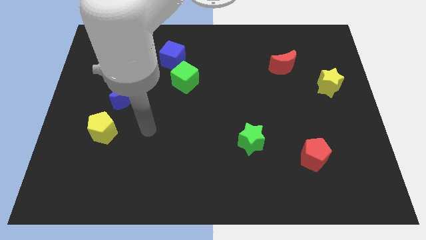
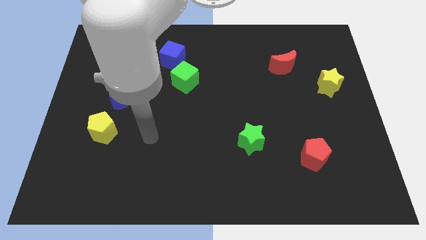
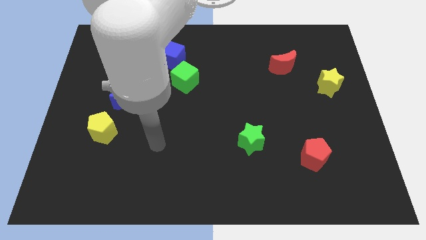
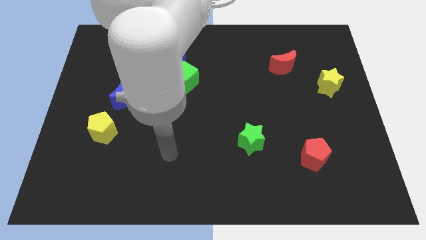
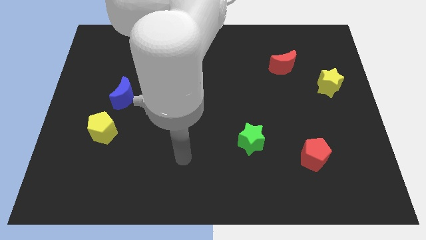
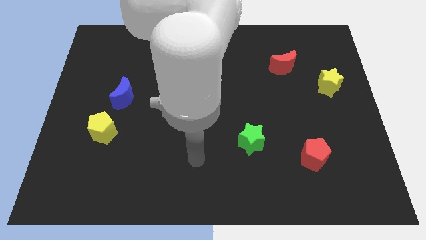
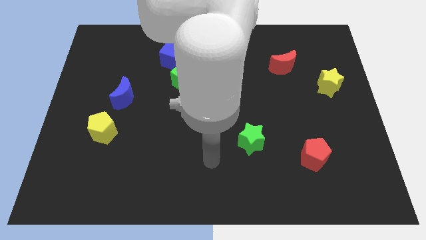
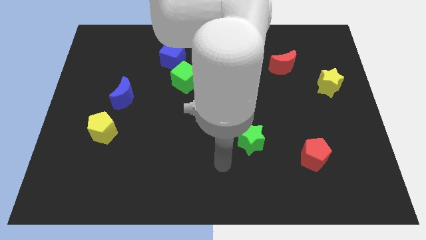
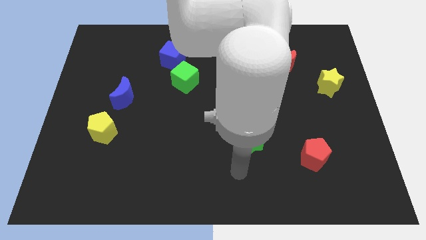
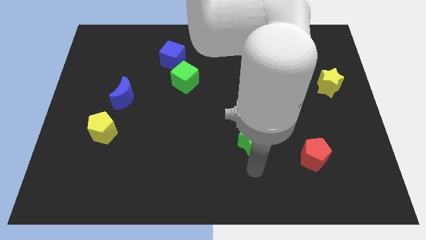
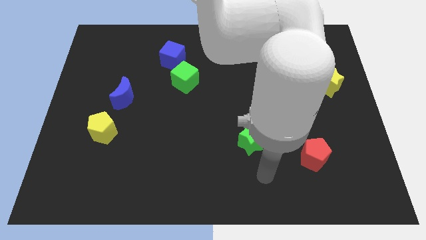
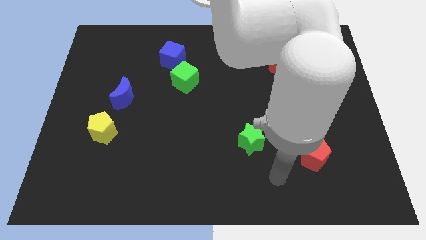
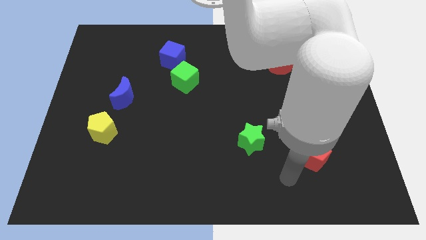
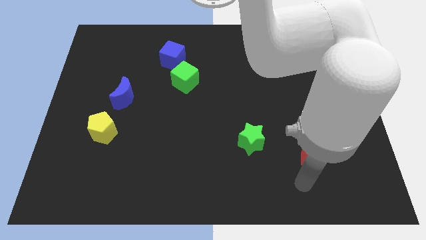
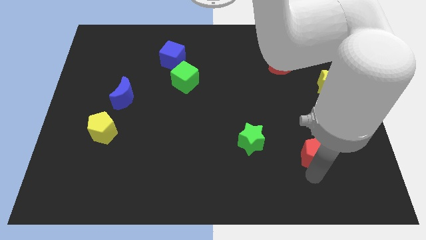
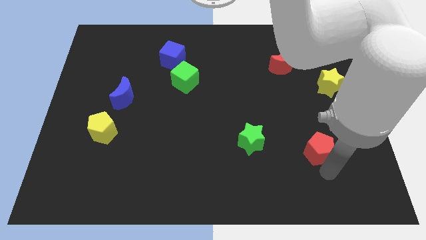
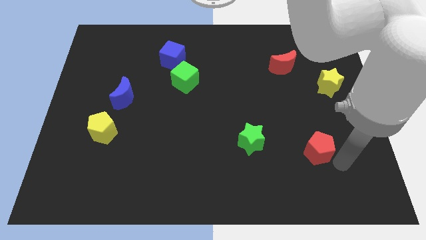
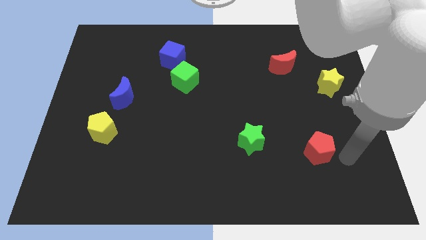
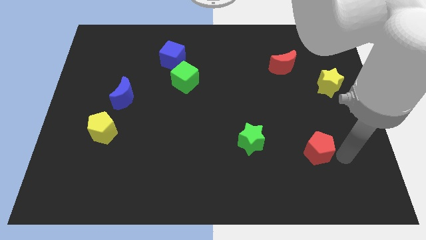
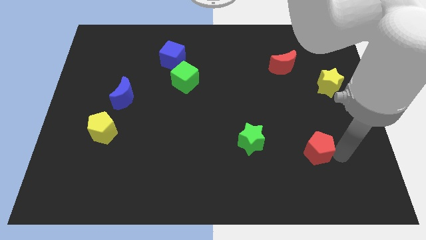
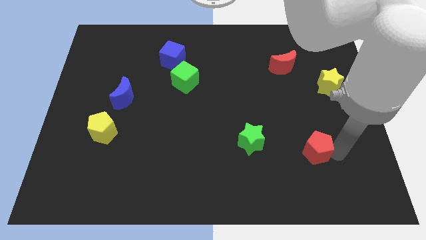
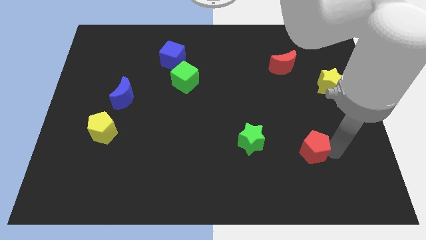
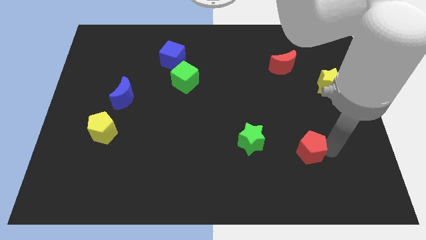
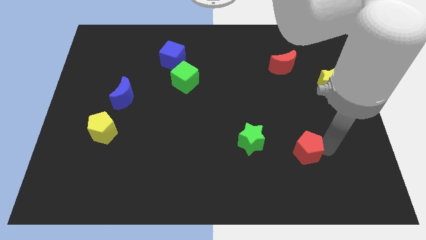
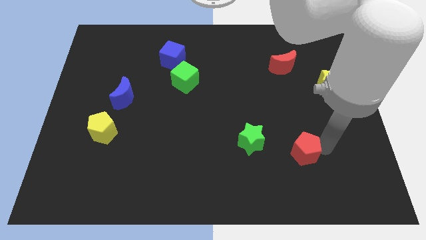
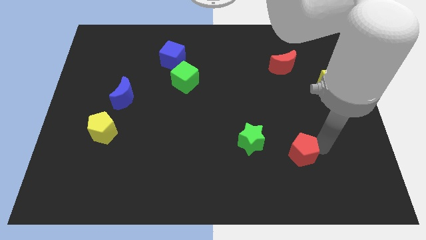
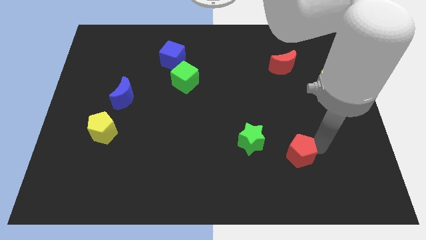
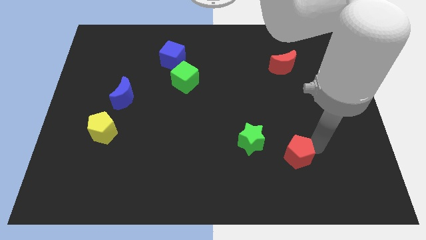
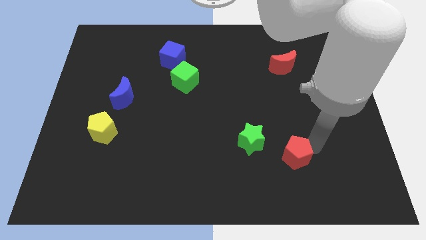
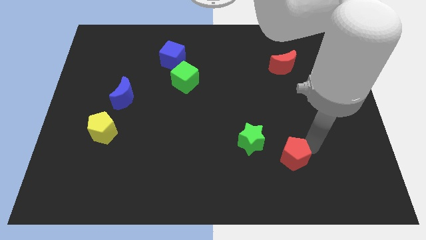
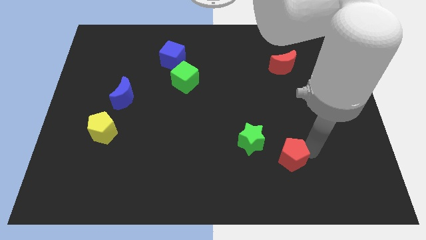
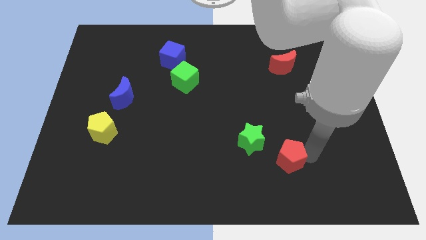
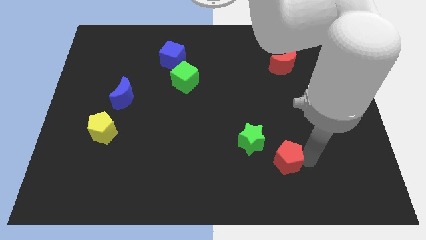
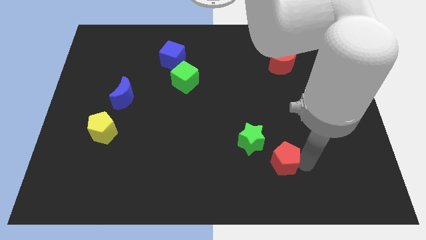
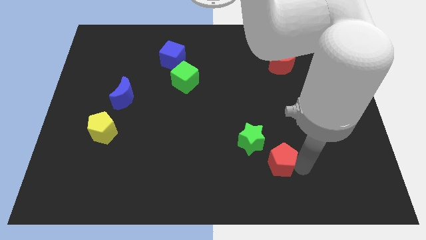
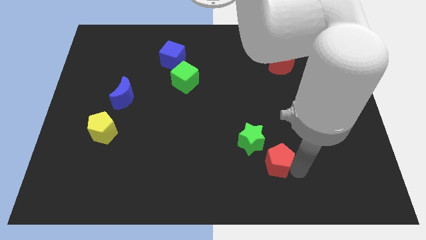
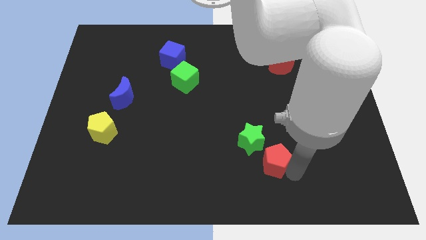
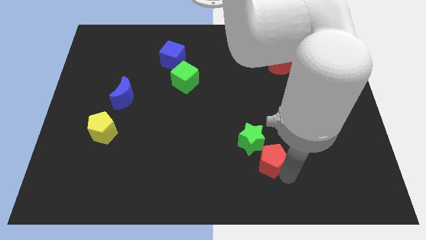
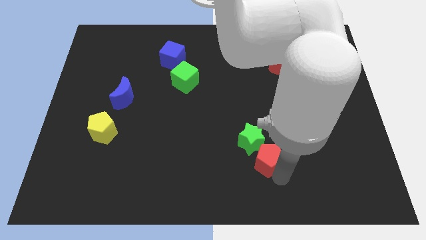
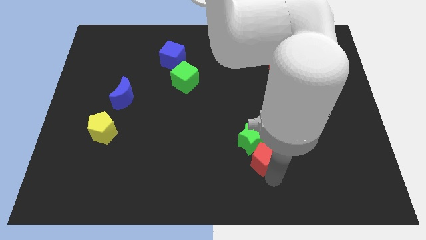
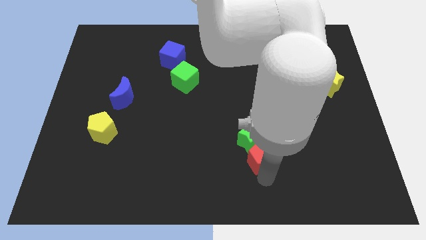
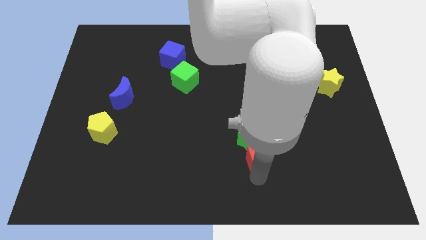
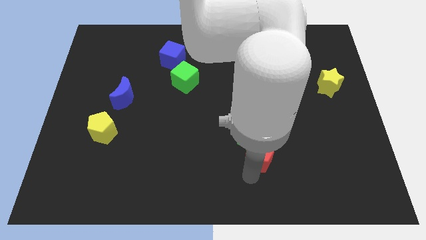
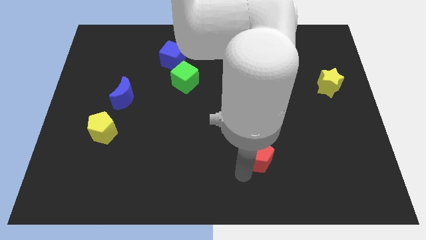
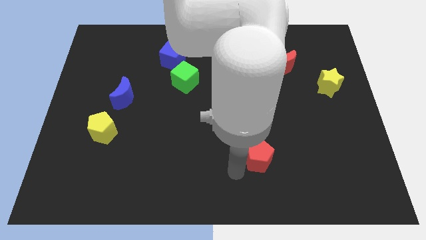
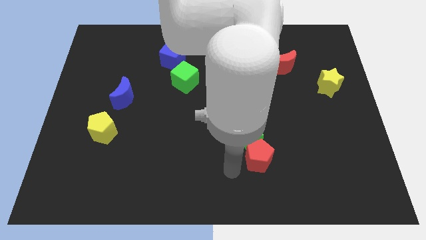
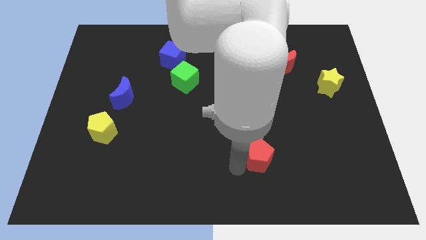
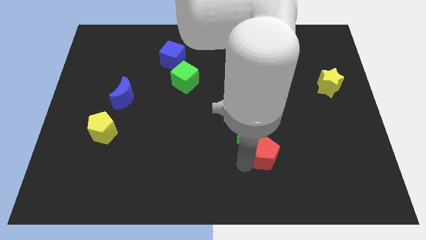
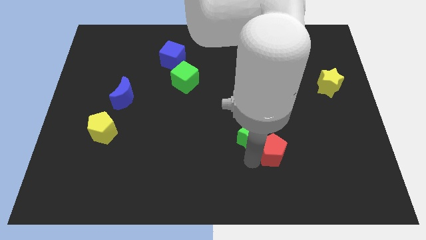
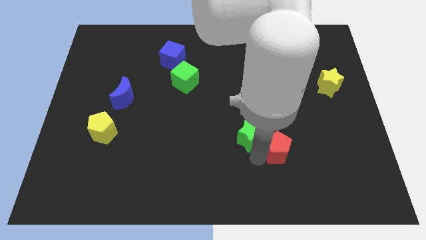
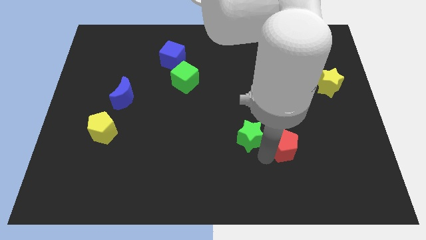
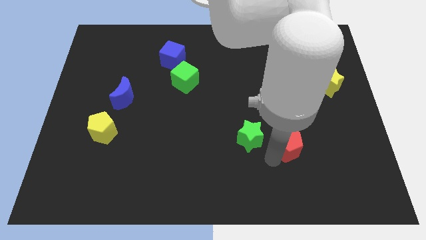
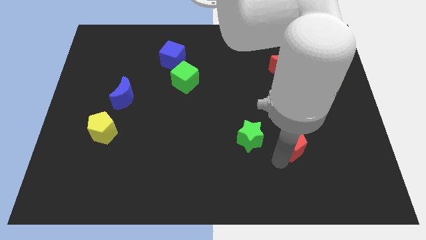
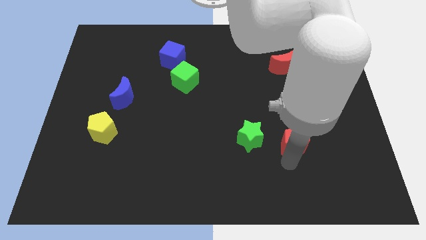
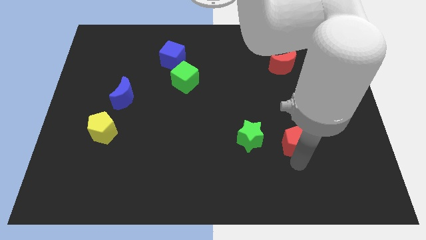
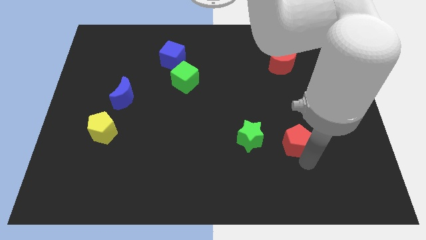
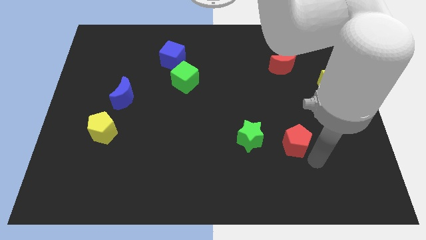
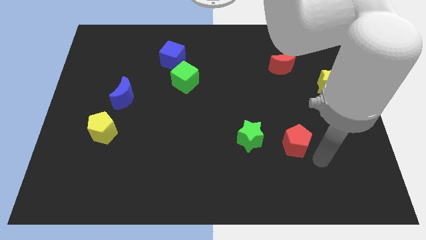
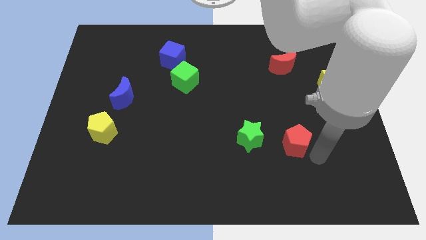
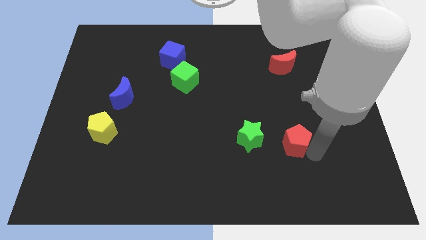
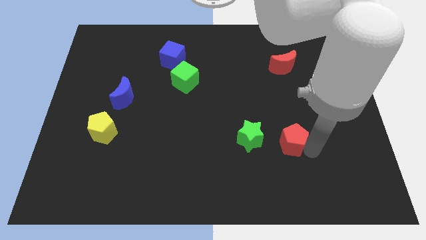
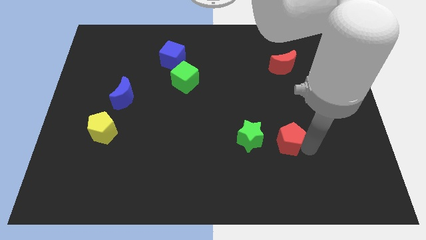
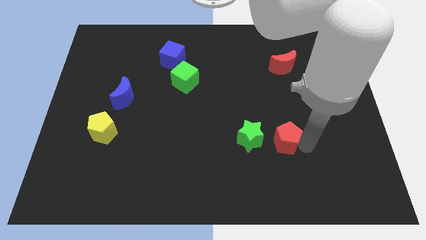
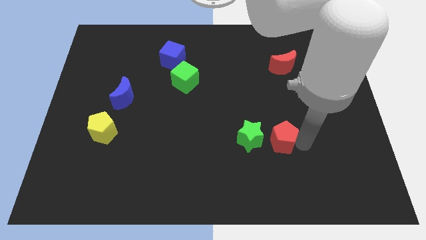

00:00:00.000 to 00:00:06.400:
slightly slide the red pentagon upwards and to the left diagonally

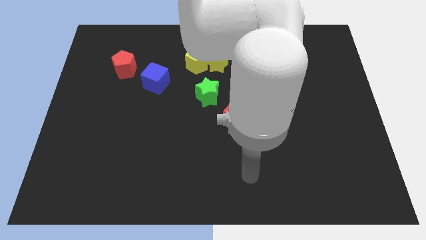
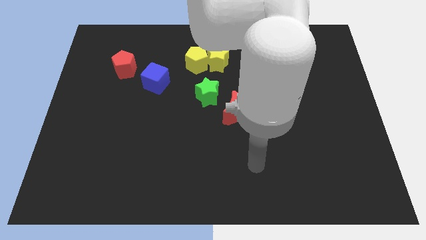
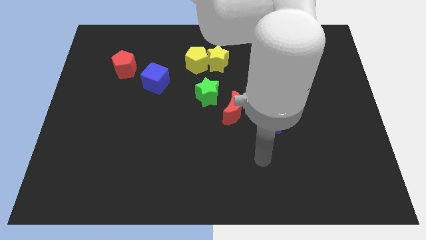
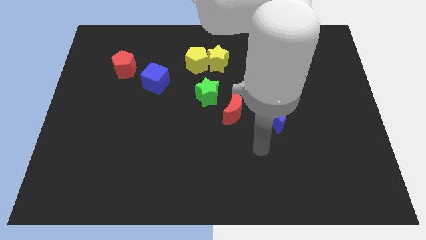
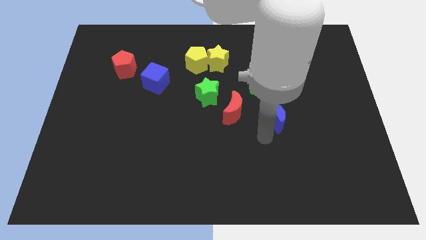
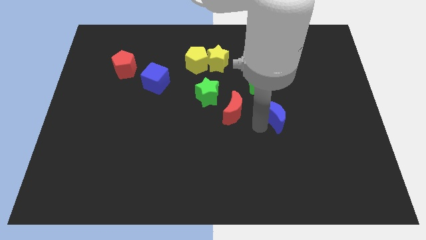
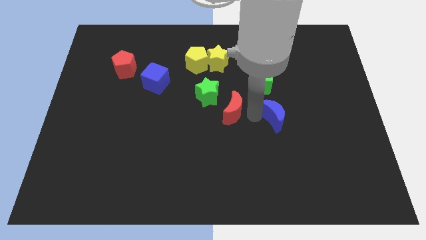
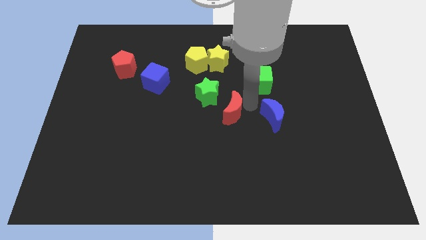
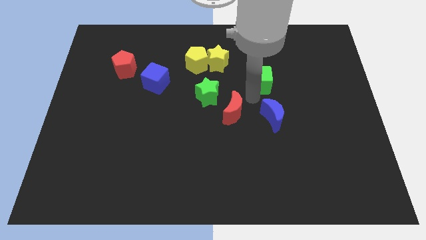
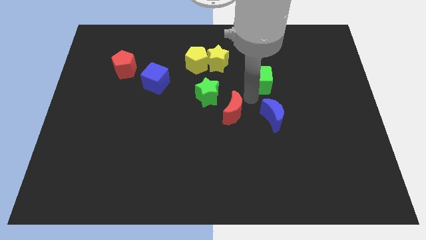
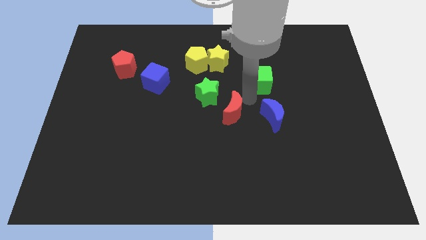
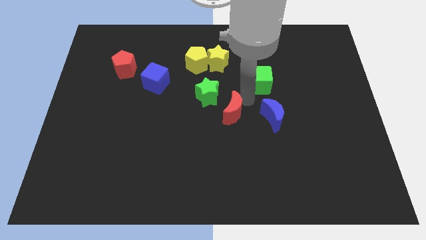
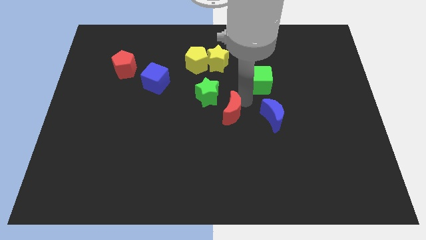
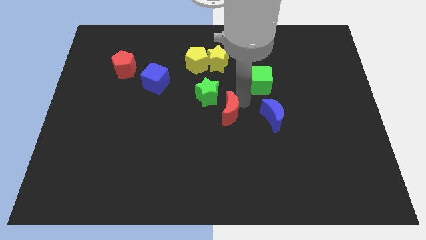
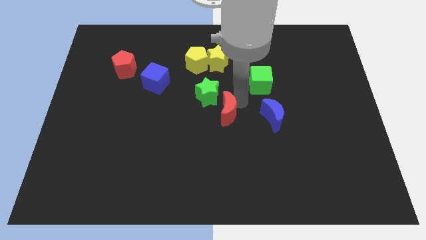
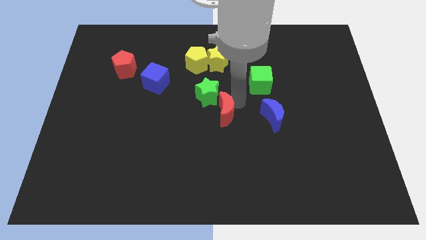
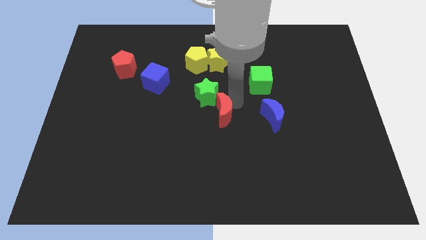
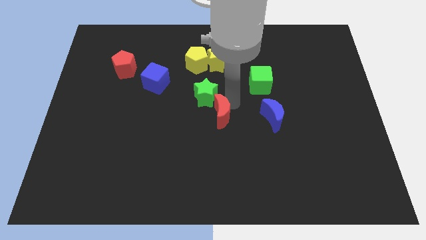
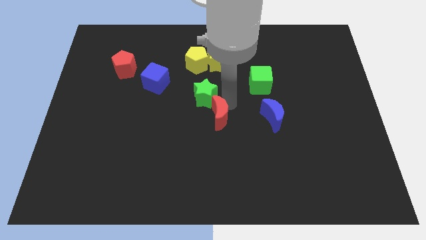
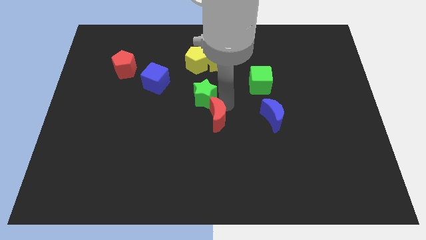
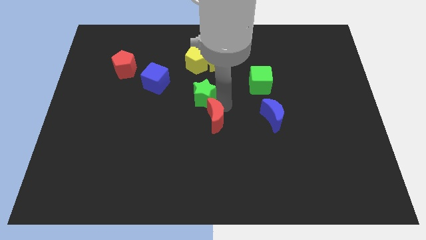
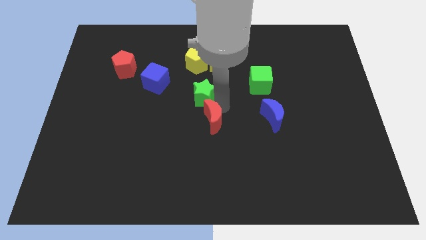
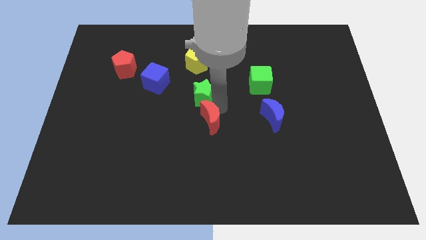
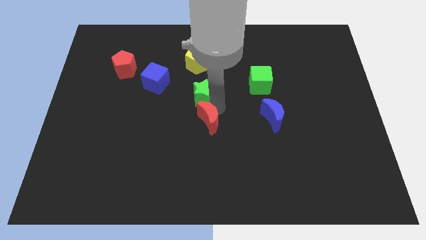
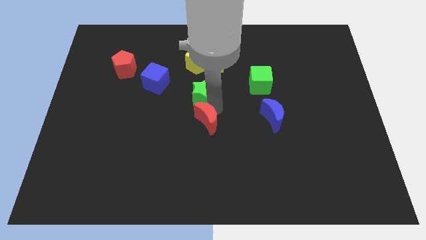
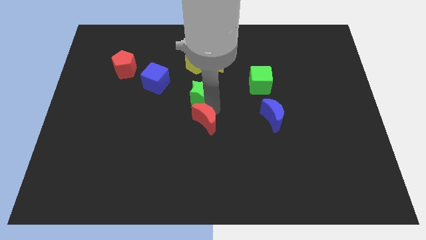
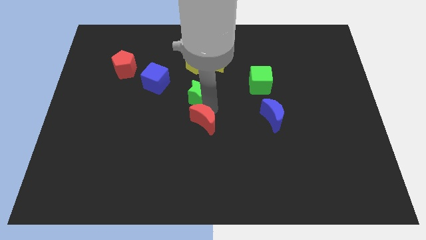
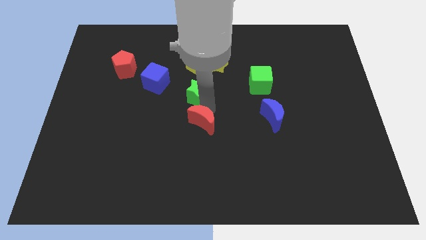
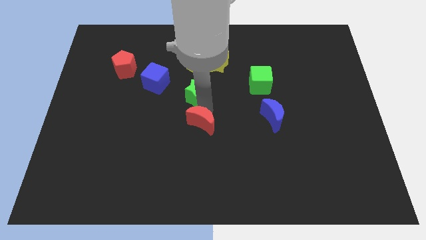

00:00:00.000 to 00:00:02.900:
move the red moon somewhat down and left diagonally
